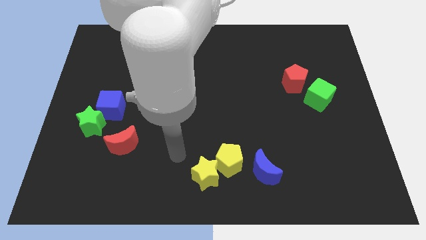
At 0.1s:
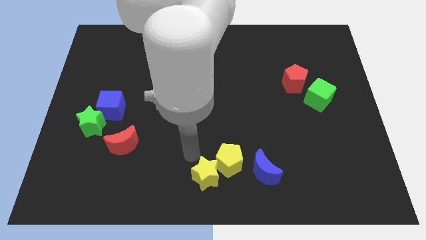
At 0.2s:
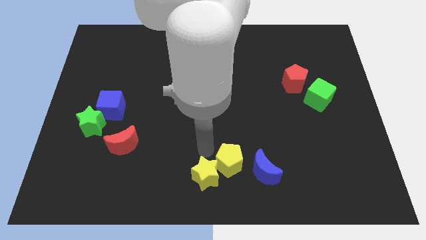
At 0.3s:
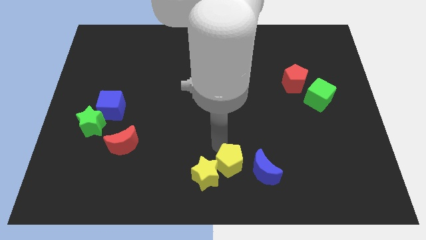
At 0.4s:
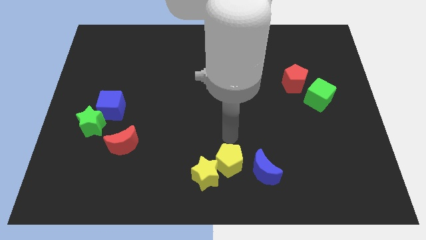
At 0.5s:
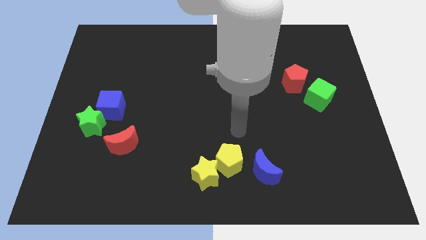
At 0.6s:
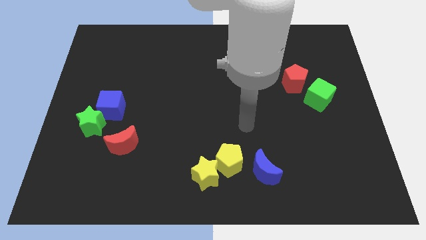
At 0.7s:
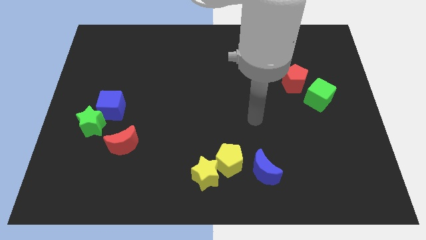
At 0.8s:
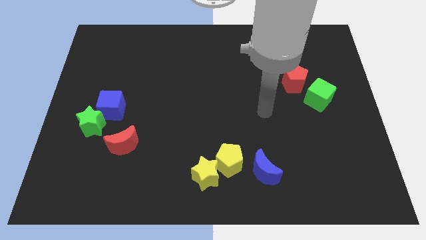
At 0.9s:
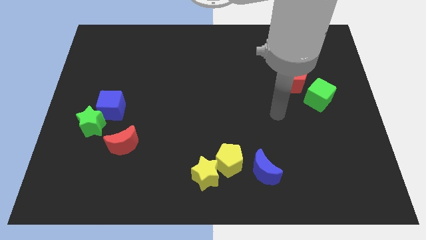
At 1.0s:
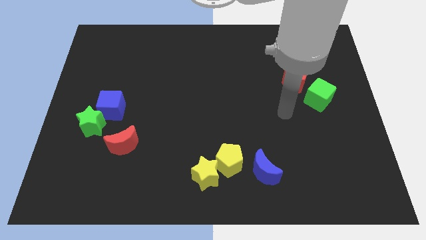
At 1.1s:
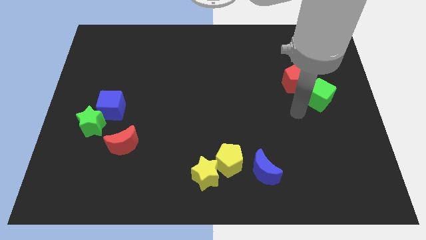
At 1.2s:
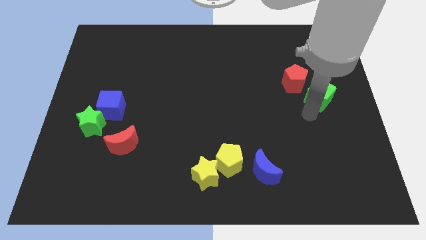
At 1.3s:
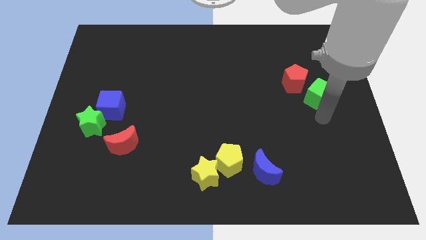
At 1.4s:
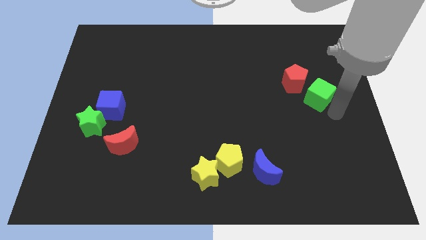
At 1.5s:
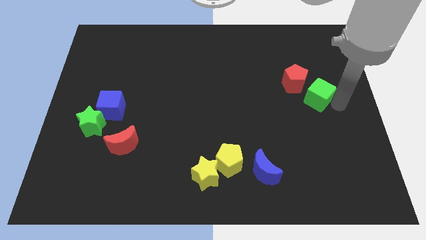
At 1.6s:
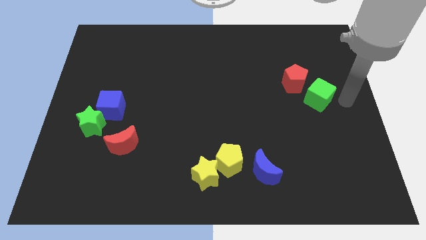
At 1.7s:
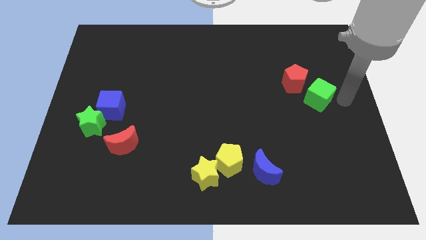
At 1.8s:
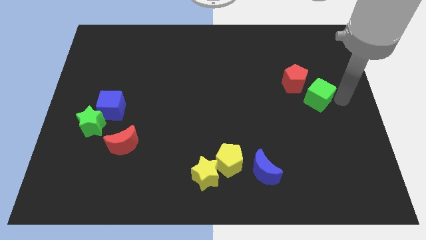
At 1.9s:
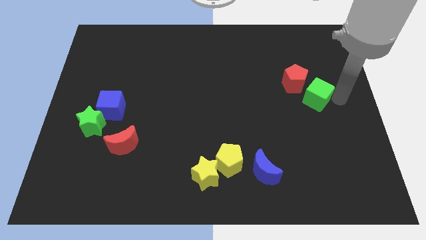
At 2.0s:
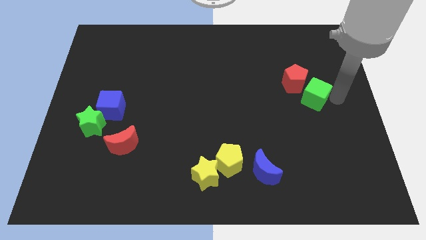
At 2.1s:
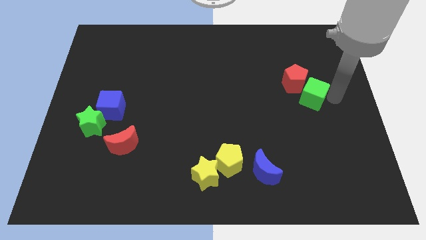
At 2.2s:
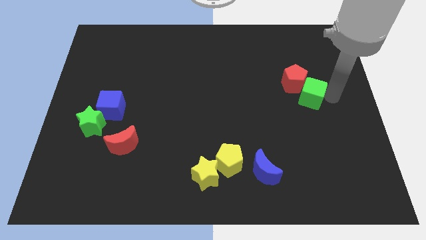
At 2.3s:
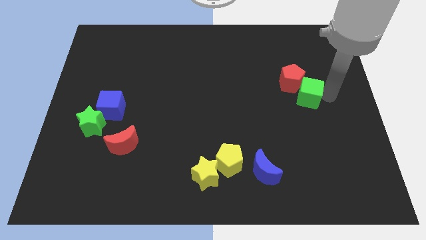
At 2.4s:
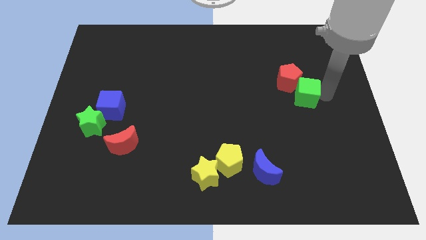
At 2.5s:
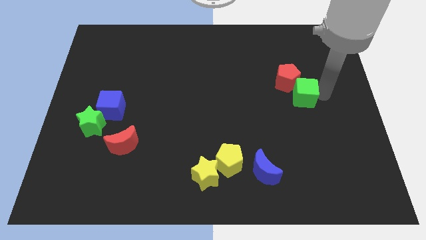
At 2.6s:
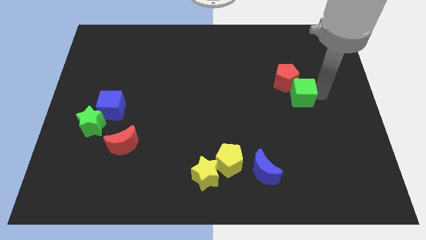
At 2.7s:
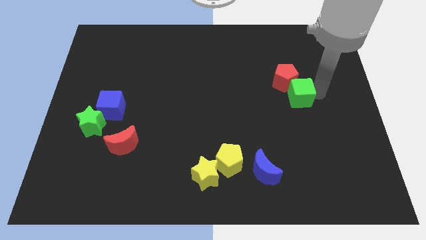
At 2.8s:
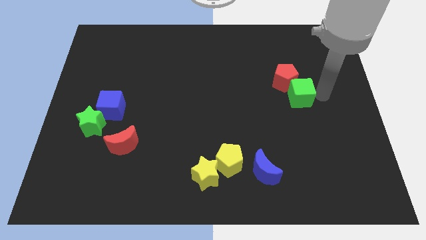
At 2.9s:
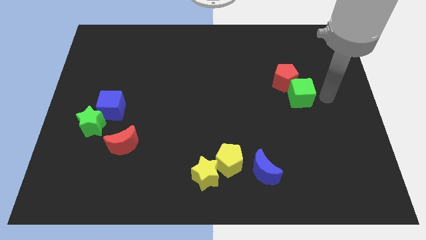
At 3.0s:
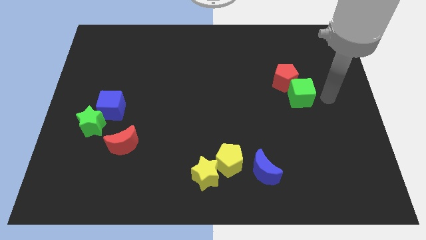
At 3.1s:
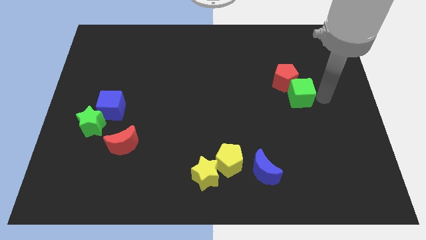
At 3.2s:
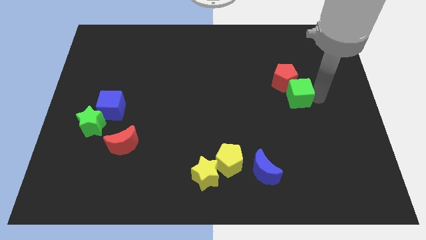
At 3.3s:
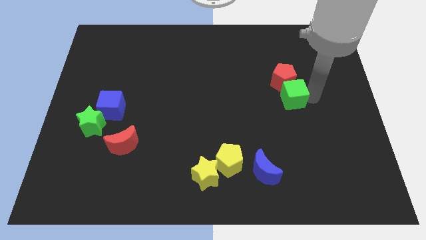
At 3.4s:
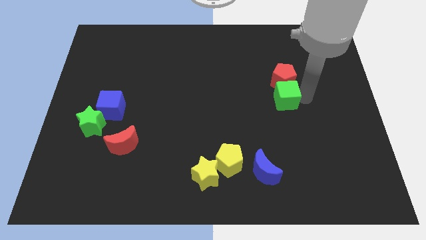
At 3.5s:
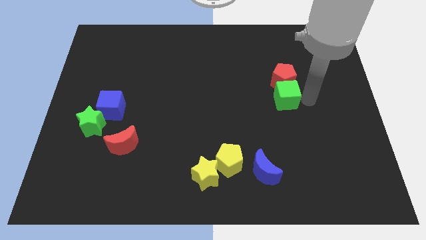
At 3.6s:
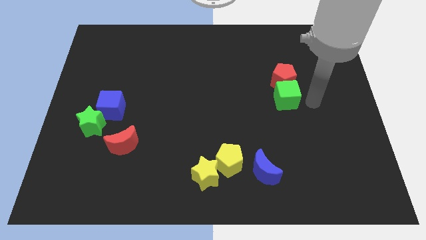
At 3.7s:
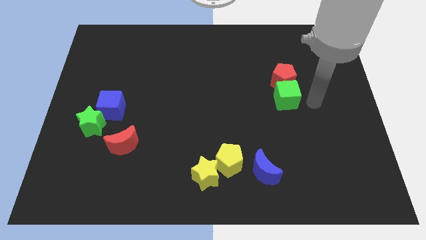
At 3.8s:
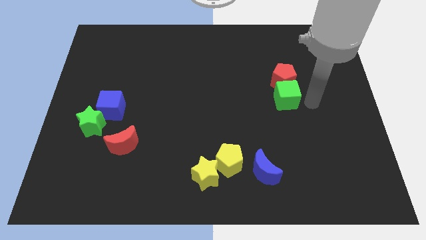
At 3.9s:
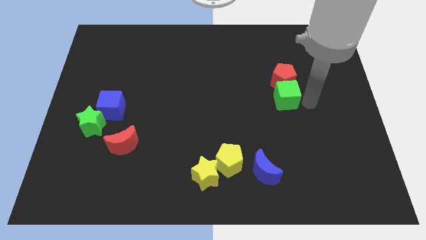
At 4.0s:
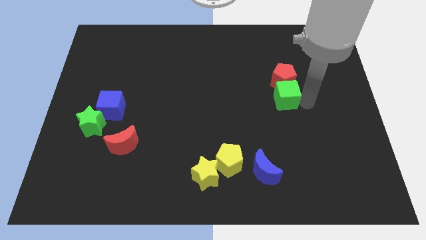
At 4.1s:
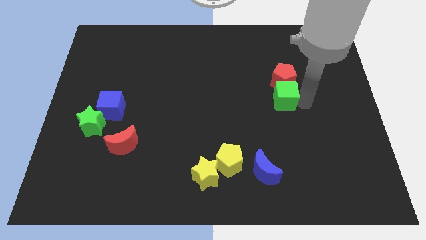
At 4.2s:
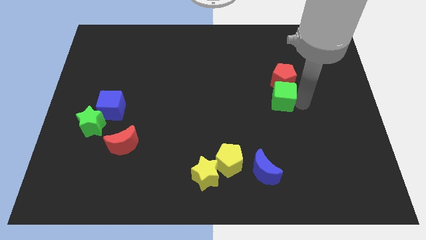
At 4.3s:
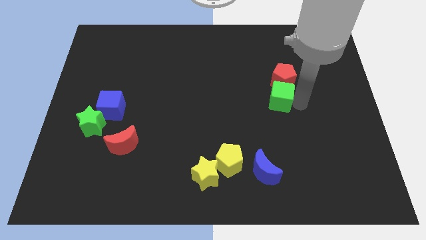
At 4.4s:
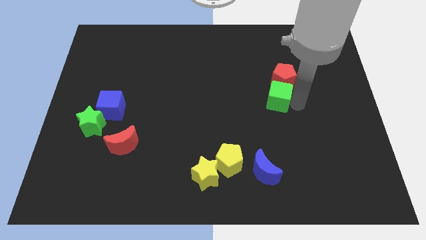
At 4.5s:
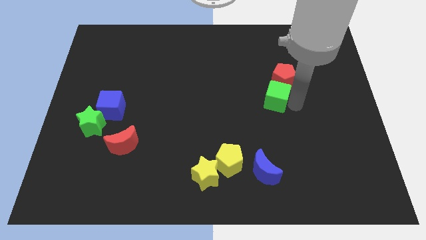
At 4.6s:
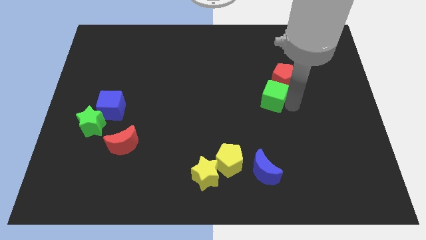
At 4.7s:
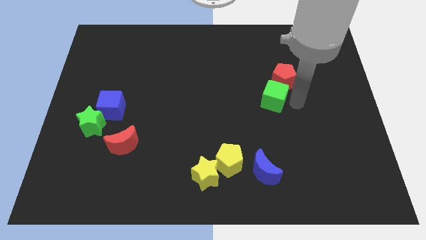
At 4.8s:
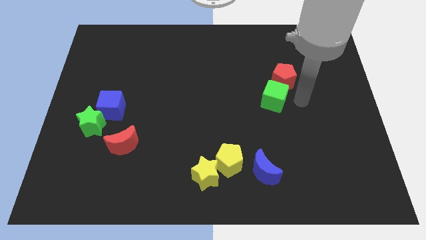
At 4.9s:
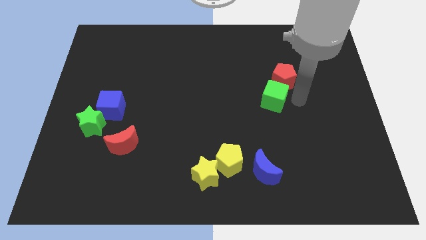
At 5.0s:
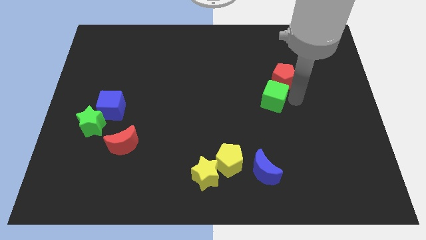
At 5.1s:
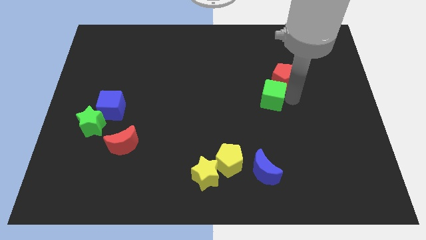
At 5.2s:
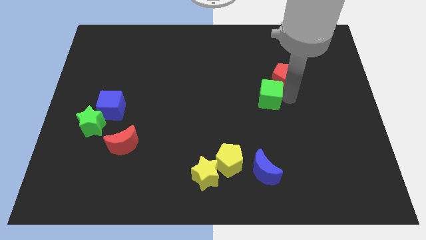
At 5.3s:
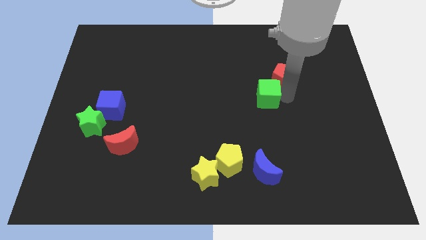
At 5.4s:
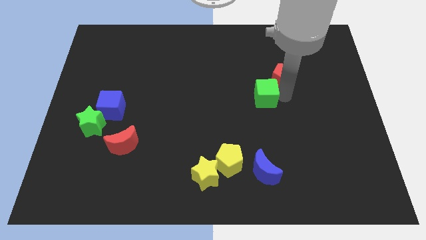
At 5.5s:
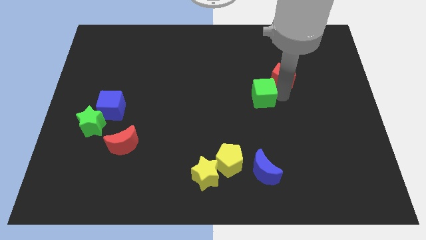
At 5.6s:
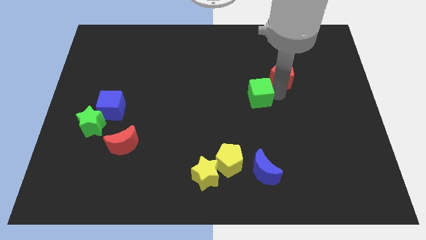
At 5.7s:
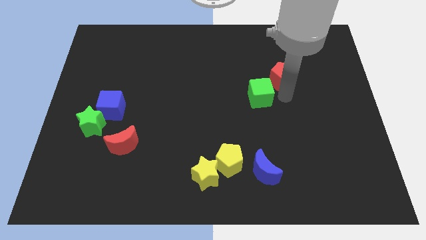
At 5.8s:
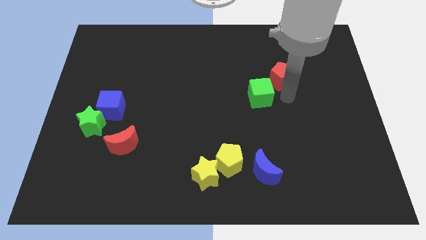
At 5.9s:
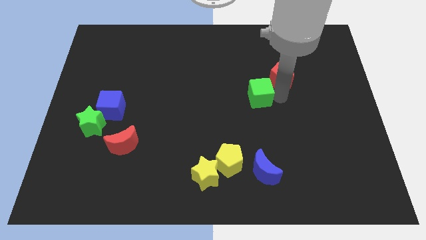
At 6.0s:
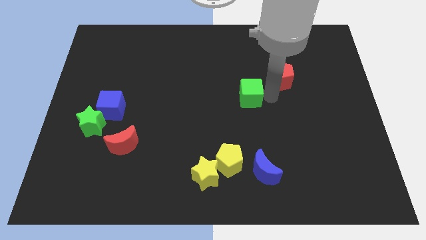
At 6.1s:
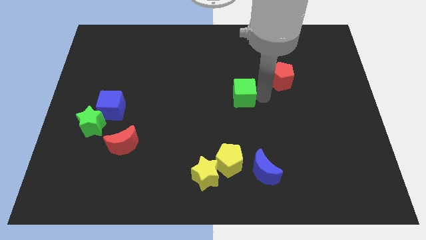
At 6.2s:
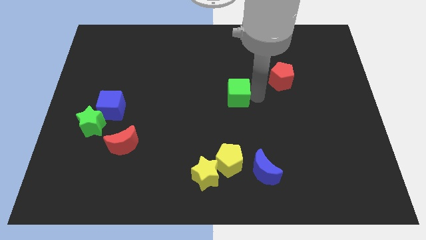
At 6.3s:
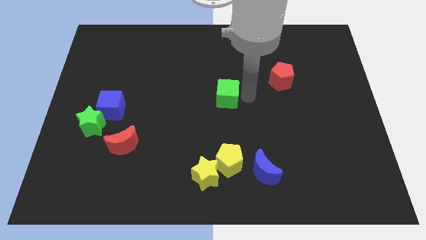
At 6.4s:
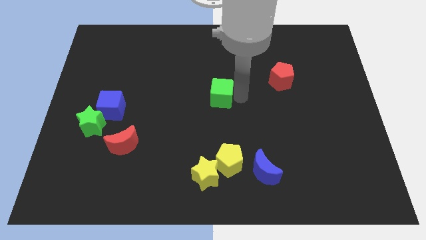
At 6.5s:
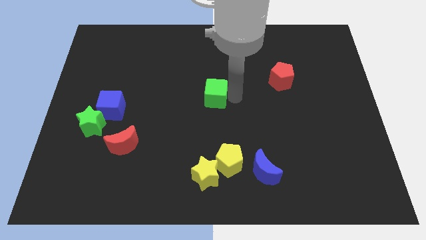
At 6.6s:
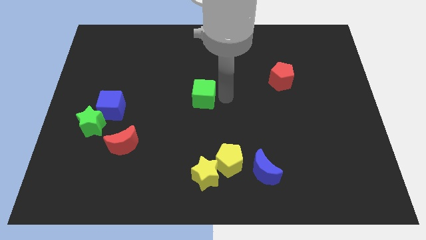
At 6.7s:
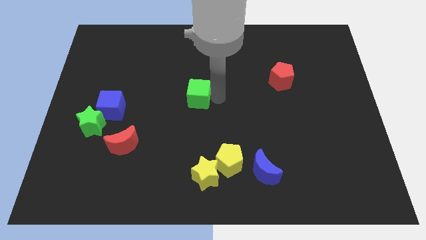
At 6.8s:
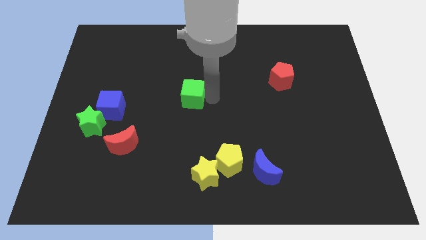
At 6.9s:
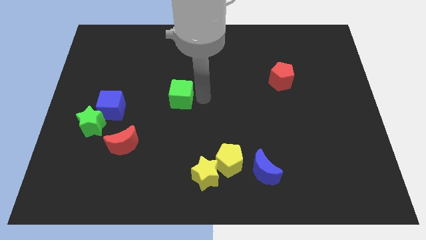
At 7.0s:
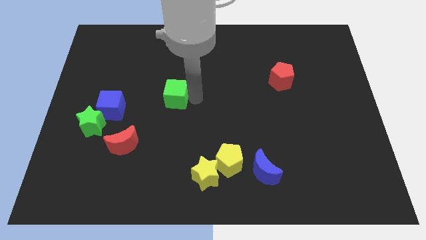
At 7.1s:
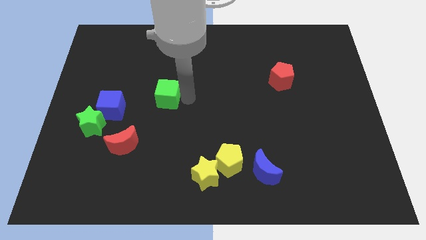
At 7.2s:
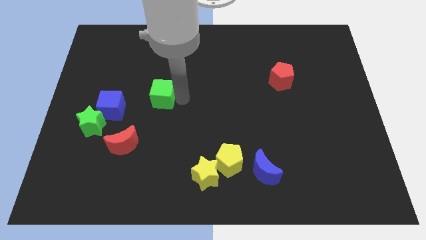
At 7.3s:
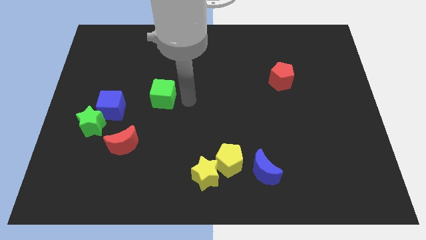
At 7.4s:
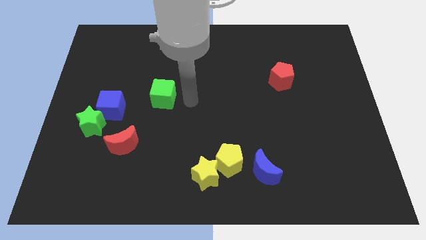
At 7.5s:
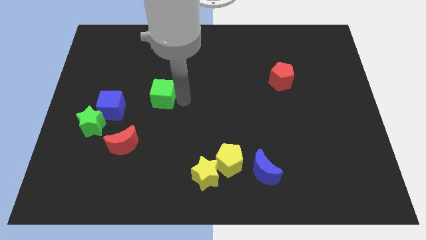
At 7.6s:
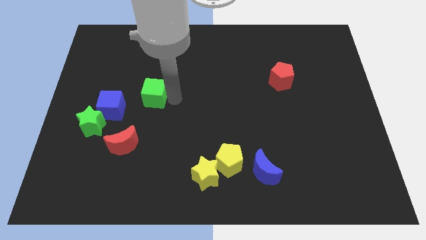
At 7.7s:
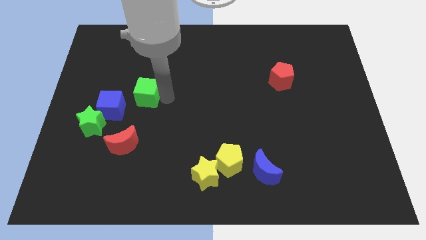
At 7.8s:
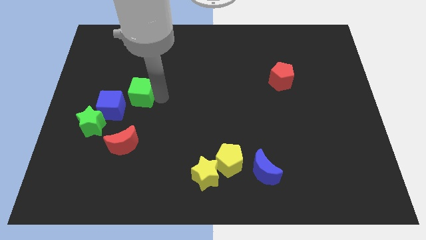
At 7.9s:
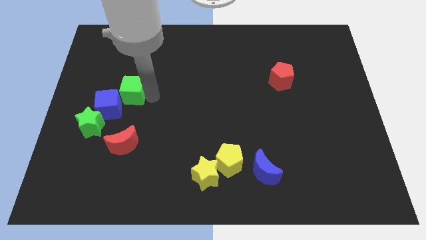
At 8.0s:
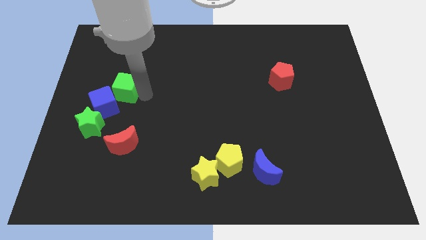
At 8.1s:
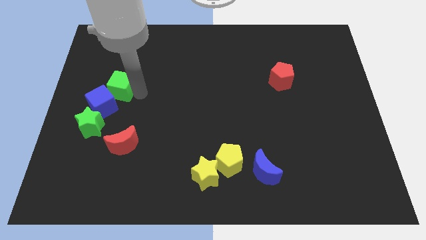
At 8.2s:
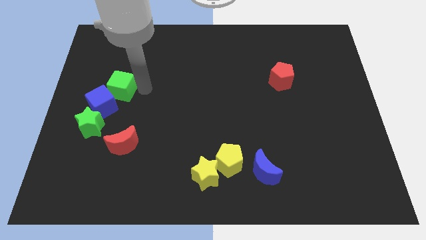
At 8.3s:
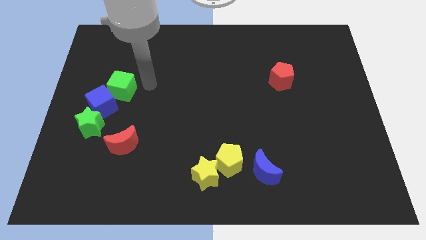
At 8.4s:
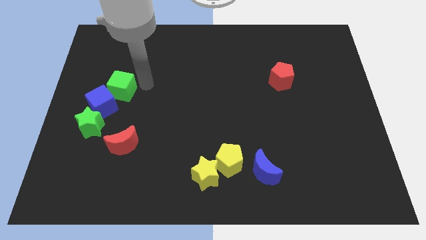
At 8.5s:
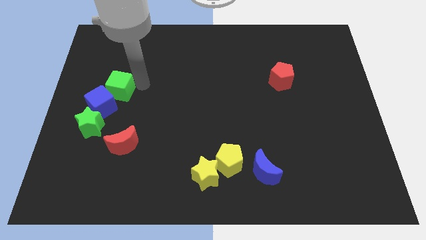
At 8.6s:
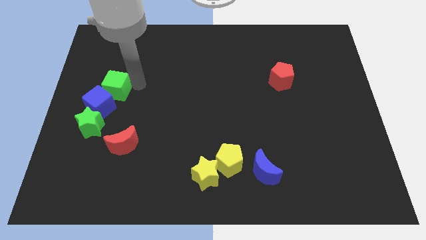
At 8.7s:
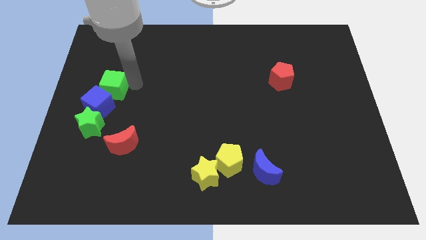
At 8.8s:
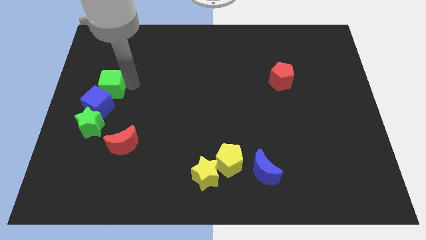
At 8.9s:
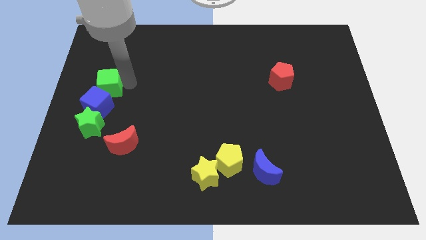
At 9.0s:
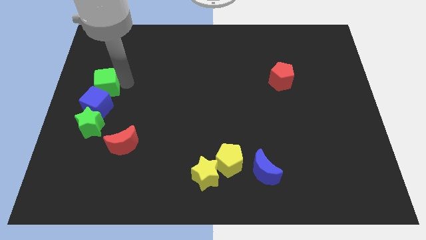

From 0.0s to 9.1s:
slide the green cube to the left side of the board
